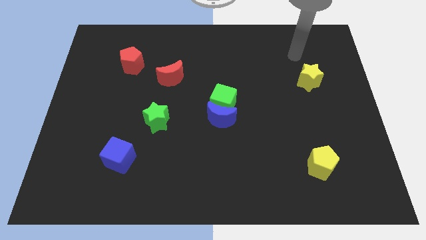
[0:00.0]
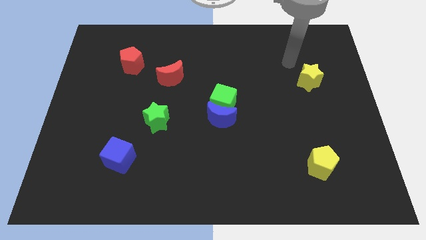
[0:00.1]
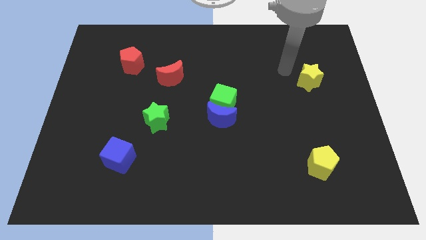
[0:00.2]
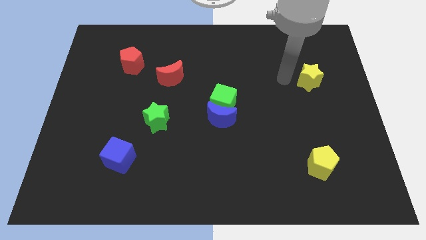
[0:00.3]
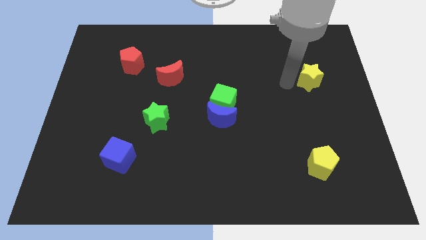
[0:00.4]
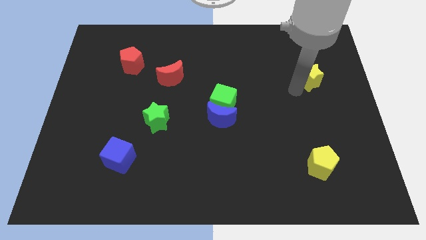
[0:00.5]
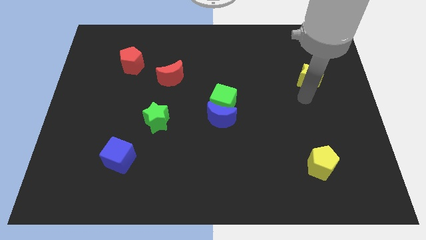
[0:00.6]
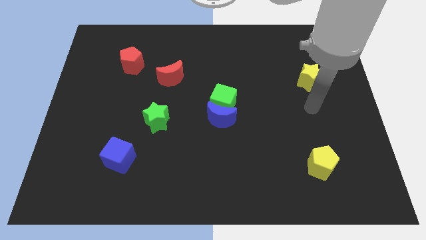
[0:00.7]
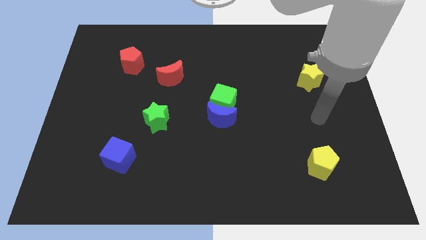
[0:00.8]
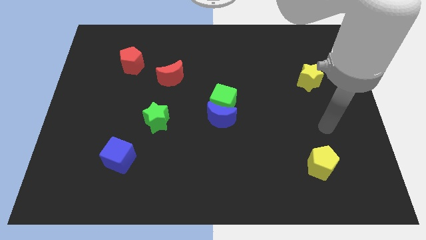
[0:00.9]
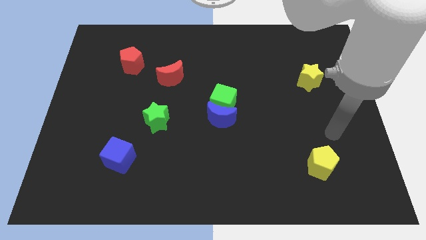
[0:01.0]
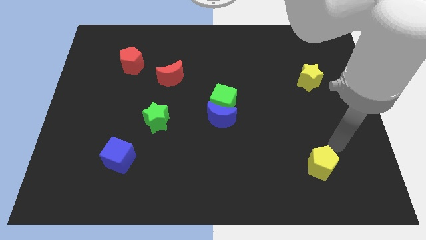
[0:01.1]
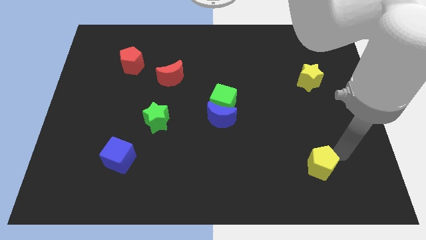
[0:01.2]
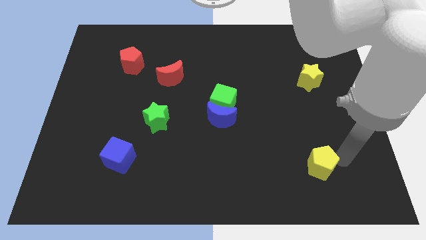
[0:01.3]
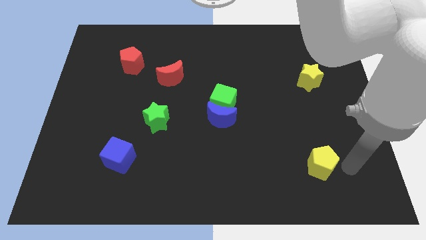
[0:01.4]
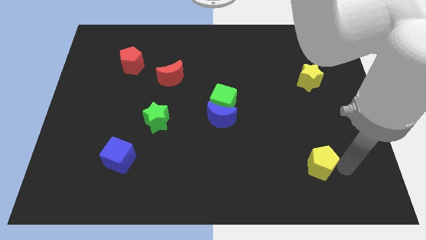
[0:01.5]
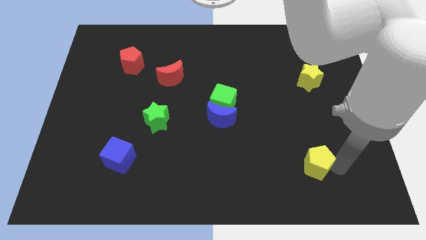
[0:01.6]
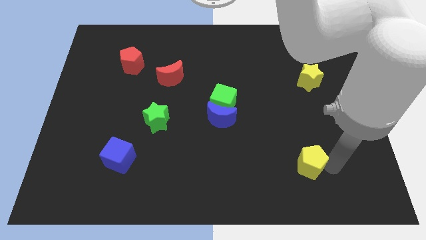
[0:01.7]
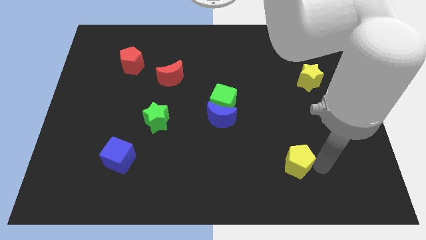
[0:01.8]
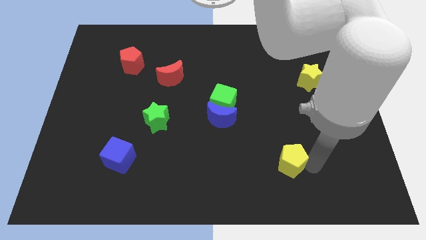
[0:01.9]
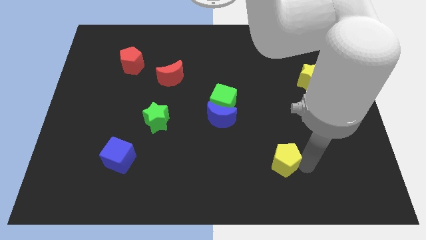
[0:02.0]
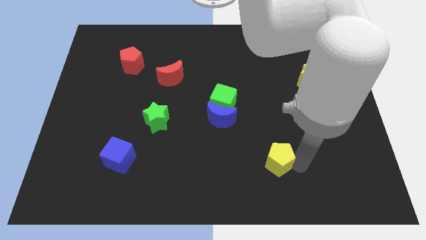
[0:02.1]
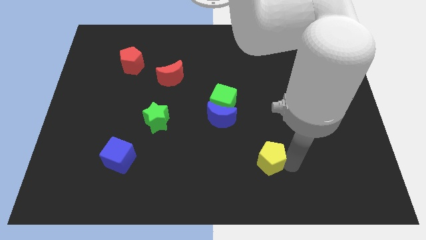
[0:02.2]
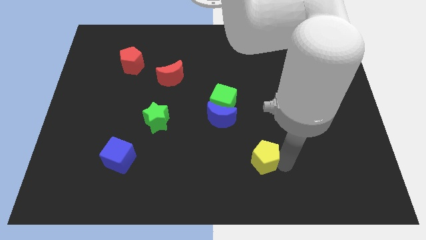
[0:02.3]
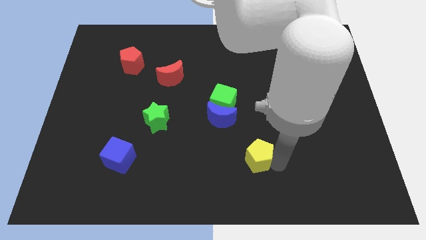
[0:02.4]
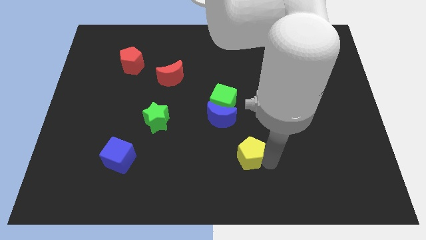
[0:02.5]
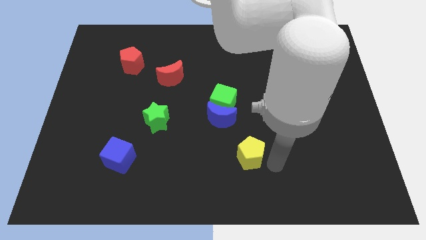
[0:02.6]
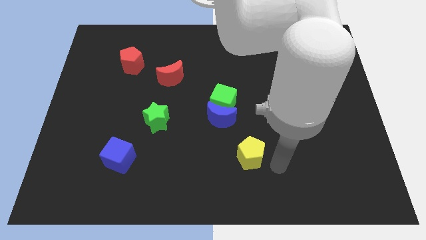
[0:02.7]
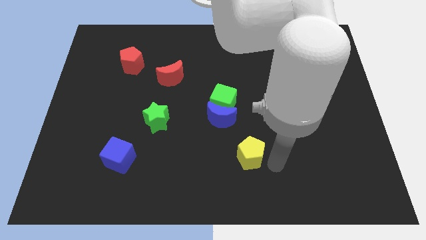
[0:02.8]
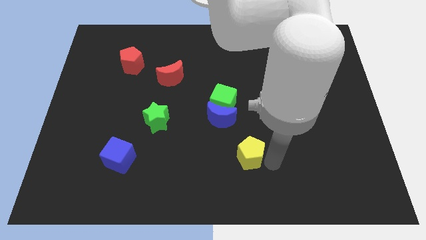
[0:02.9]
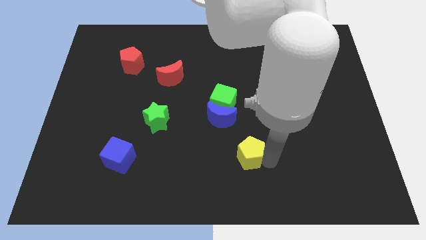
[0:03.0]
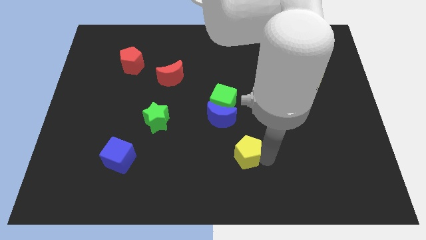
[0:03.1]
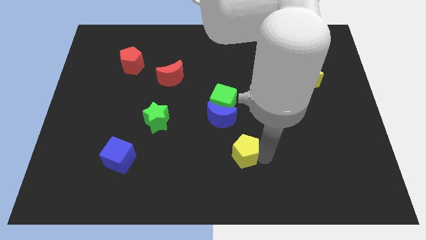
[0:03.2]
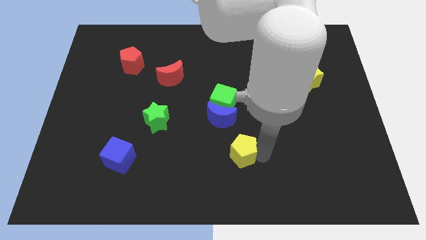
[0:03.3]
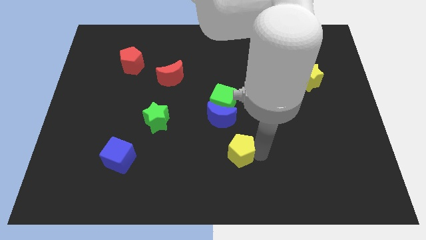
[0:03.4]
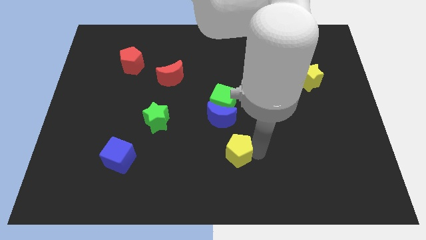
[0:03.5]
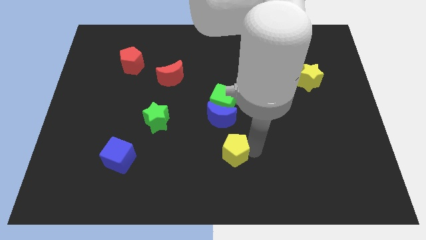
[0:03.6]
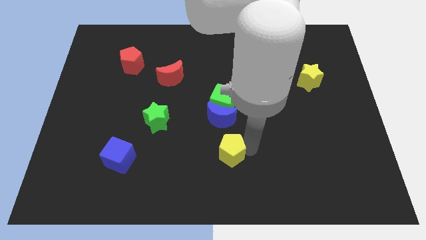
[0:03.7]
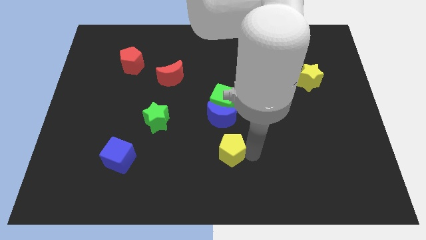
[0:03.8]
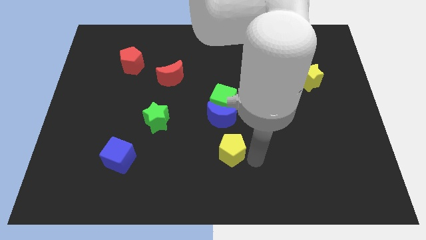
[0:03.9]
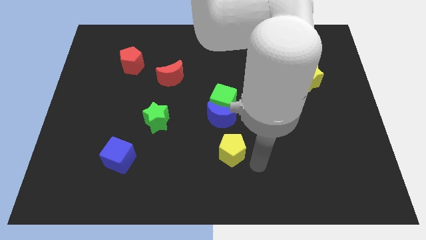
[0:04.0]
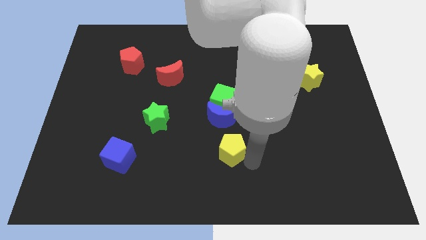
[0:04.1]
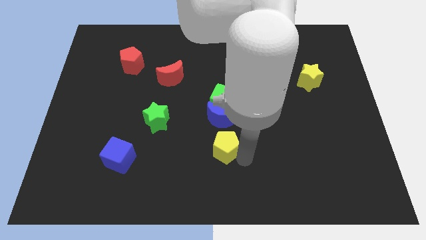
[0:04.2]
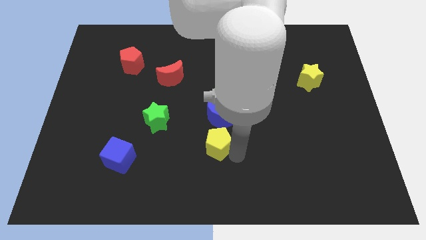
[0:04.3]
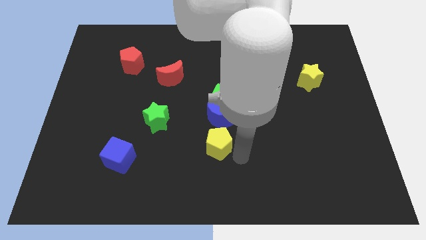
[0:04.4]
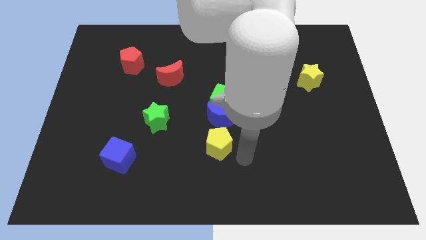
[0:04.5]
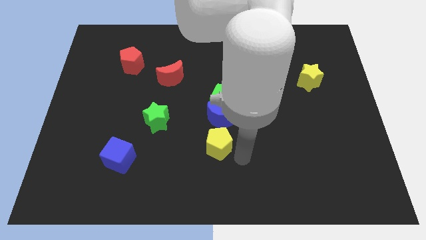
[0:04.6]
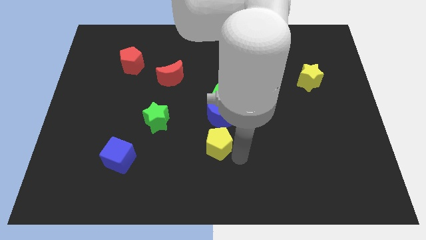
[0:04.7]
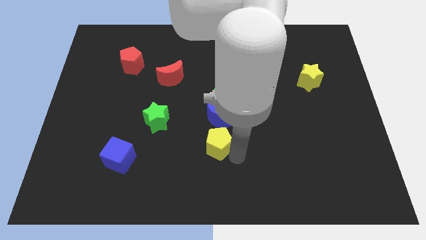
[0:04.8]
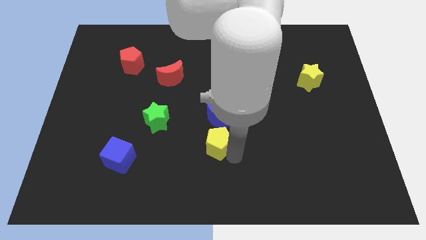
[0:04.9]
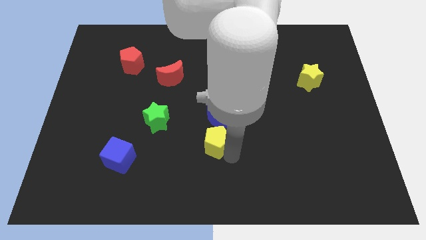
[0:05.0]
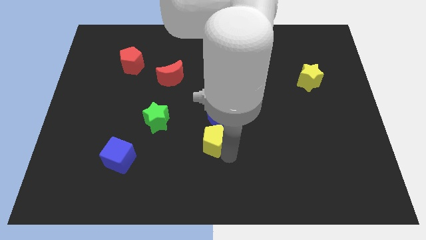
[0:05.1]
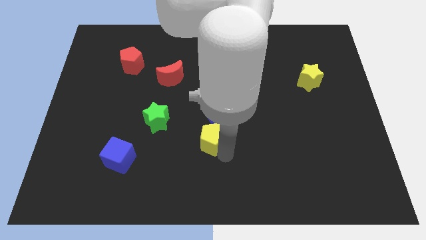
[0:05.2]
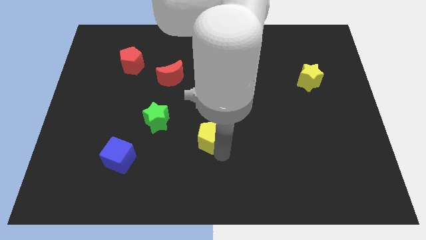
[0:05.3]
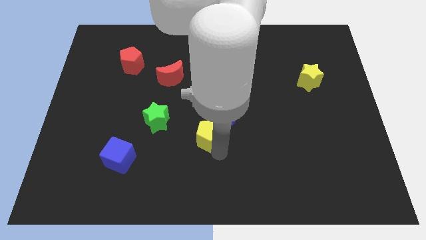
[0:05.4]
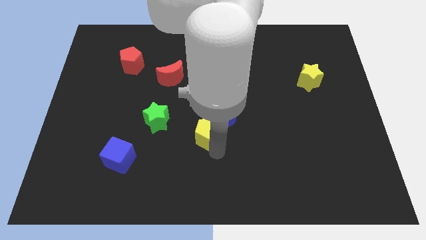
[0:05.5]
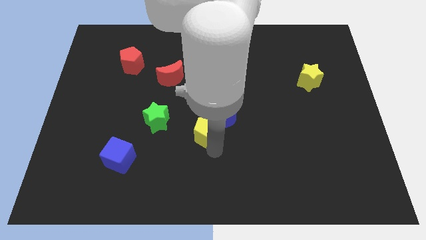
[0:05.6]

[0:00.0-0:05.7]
push the yellow pentagon left of the blue moon

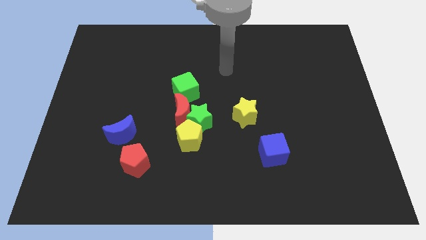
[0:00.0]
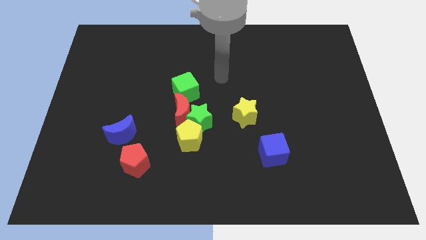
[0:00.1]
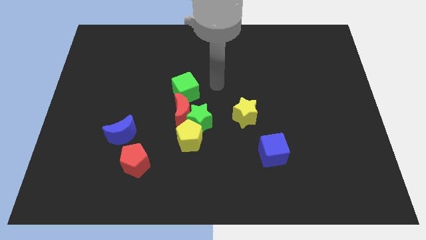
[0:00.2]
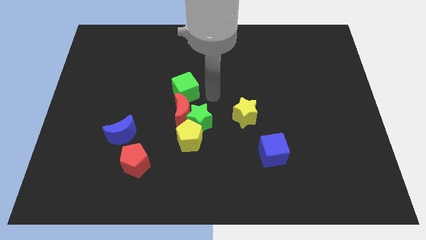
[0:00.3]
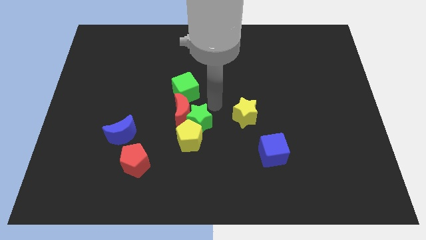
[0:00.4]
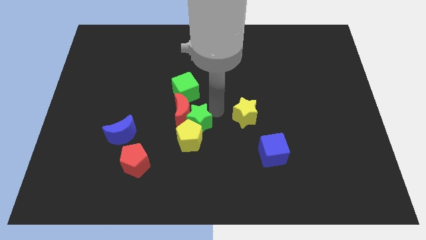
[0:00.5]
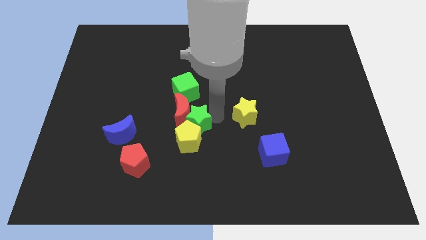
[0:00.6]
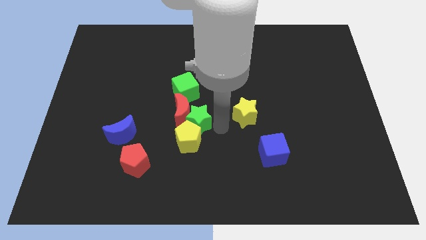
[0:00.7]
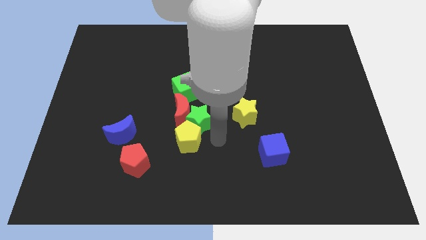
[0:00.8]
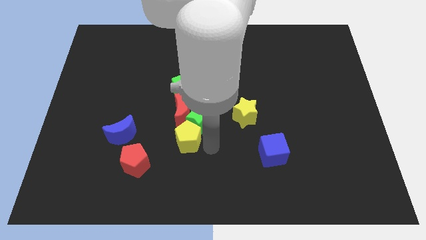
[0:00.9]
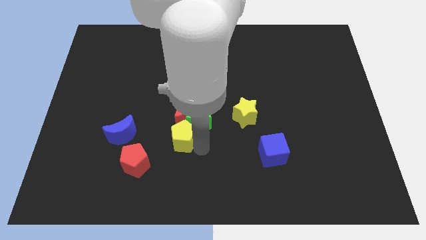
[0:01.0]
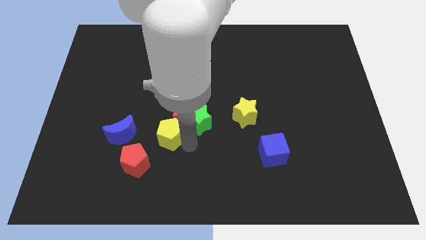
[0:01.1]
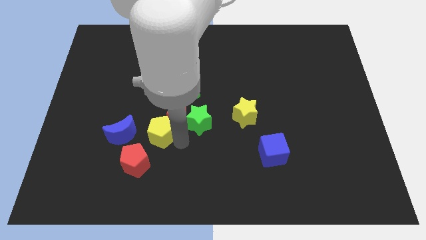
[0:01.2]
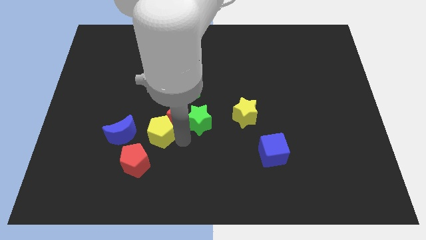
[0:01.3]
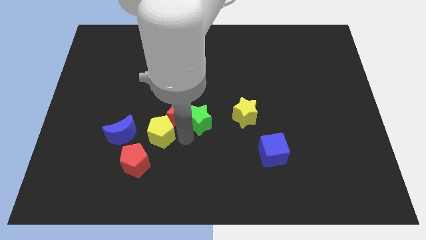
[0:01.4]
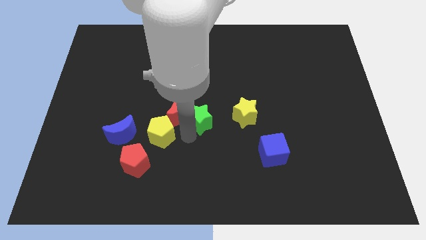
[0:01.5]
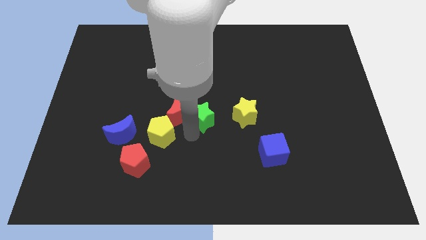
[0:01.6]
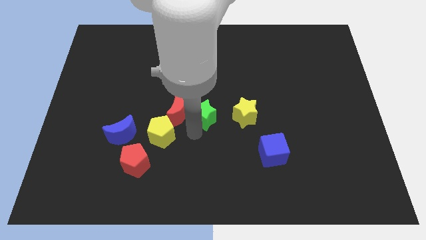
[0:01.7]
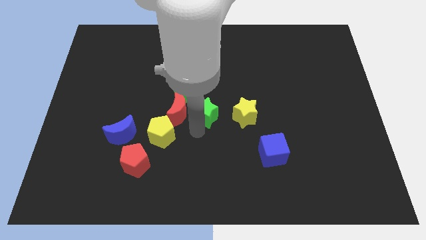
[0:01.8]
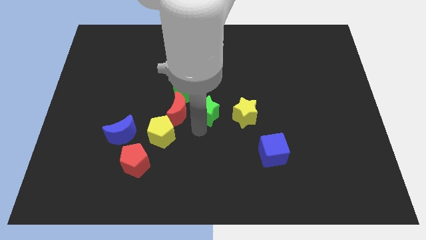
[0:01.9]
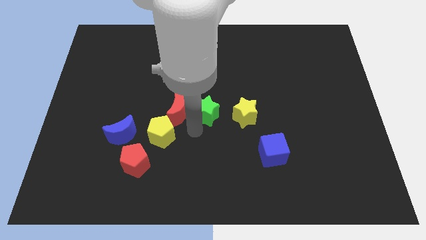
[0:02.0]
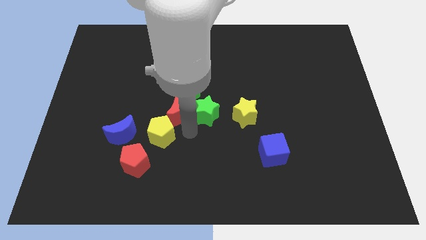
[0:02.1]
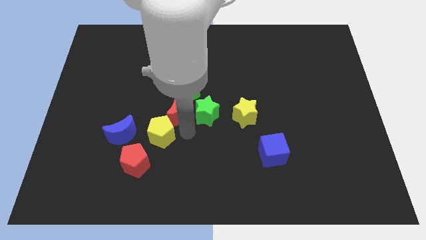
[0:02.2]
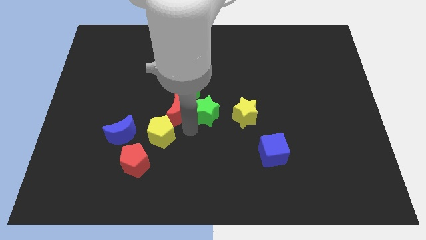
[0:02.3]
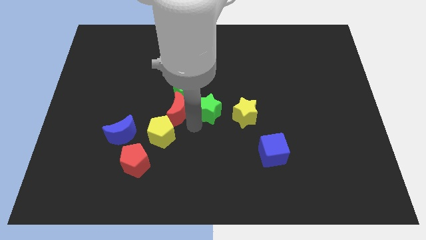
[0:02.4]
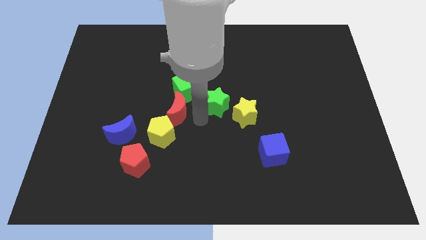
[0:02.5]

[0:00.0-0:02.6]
push the green star right of the green cube
